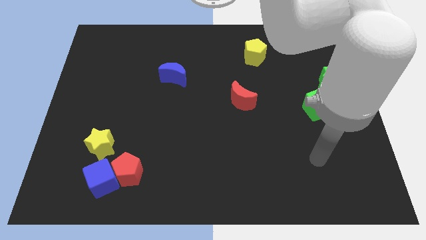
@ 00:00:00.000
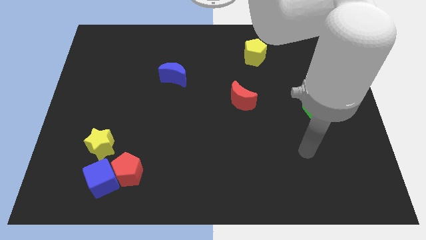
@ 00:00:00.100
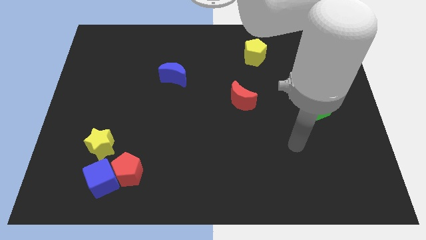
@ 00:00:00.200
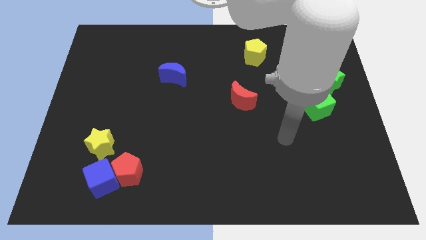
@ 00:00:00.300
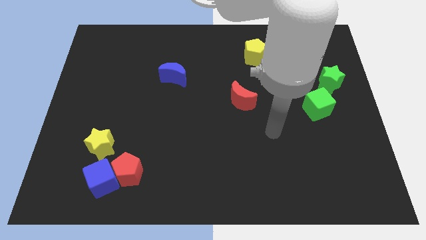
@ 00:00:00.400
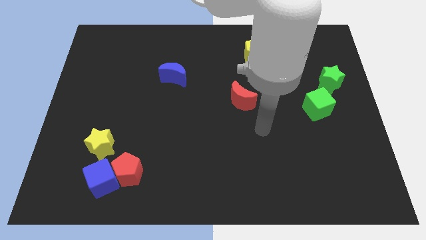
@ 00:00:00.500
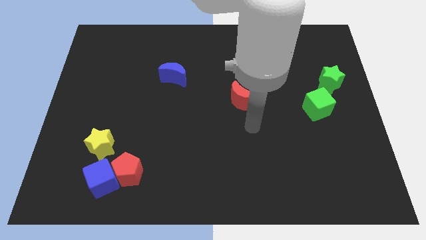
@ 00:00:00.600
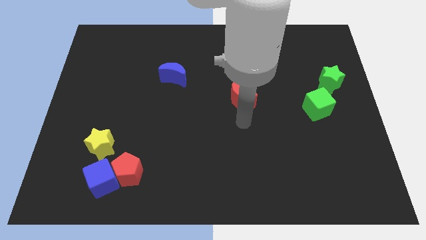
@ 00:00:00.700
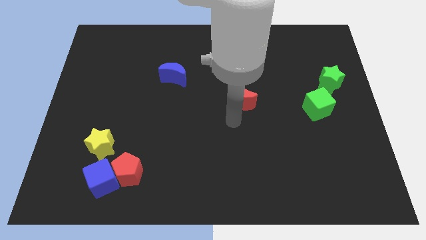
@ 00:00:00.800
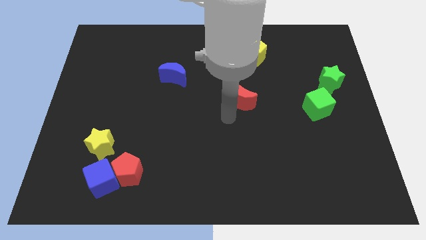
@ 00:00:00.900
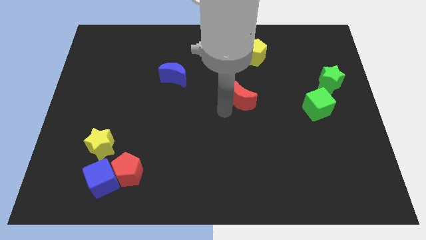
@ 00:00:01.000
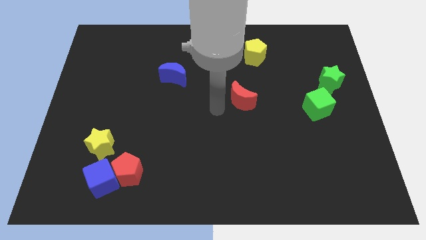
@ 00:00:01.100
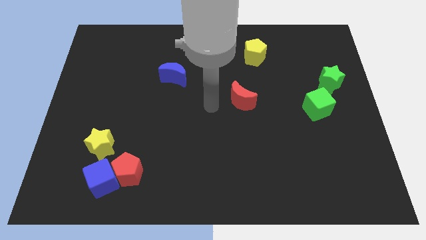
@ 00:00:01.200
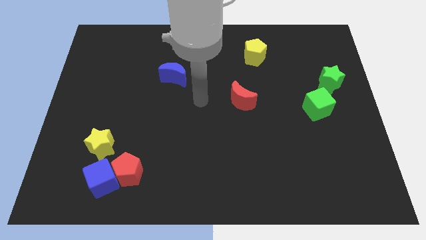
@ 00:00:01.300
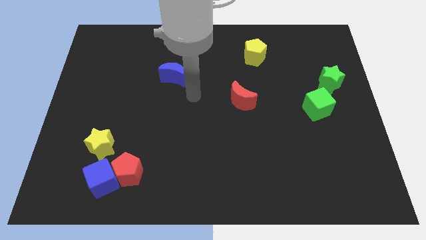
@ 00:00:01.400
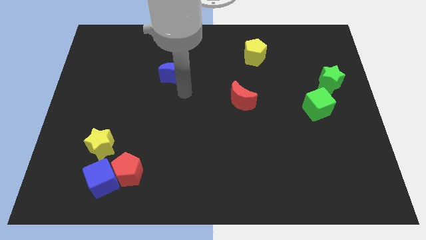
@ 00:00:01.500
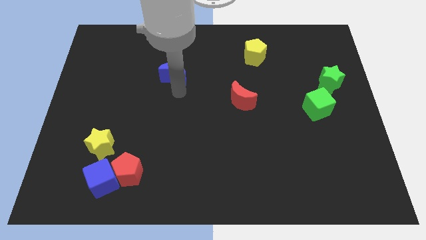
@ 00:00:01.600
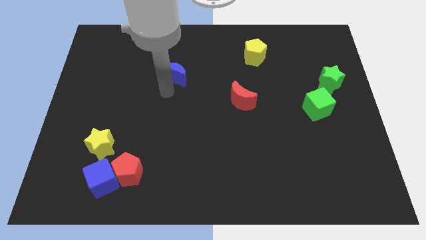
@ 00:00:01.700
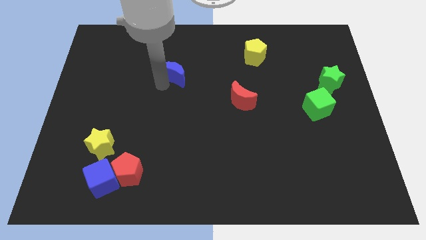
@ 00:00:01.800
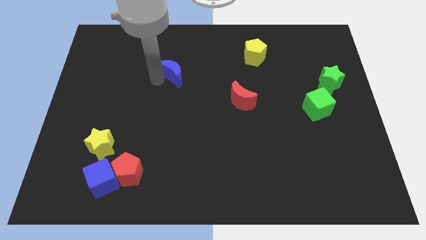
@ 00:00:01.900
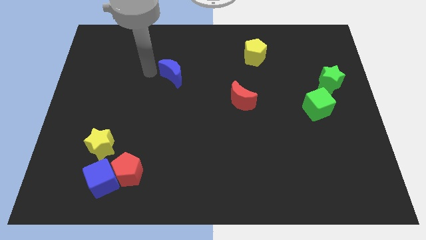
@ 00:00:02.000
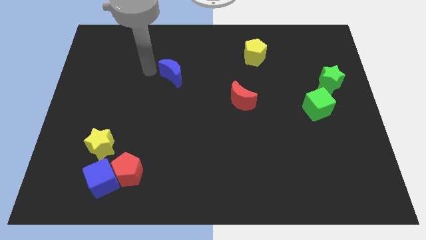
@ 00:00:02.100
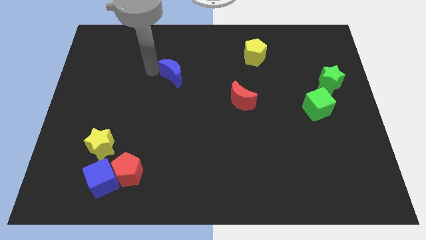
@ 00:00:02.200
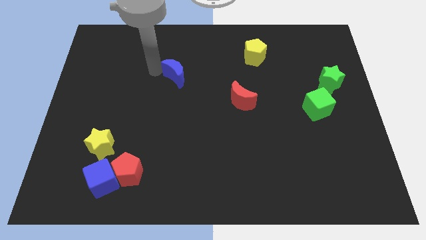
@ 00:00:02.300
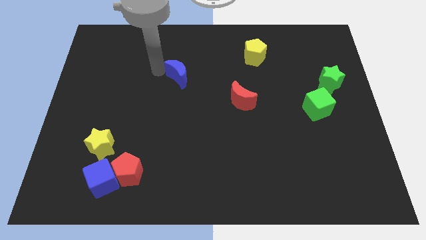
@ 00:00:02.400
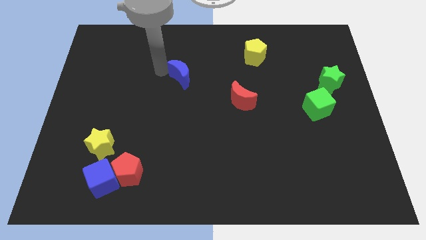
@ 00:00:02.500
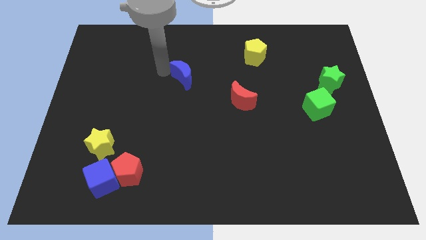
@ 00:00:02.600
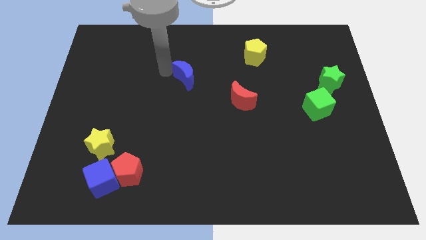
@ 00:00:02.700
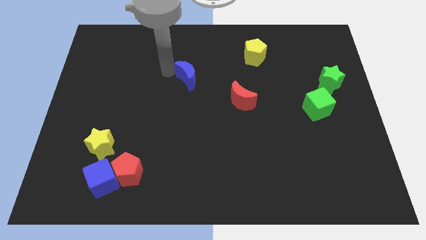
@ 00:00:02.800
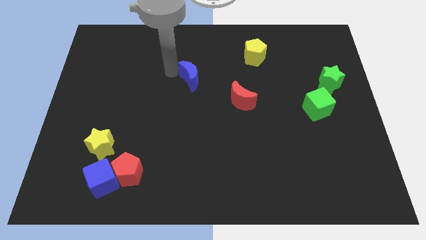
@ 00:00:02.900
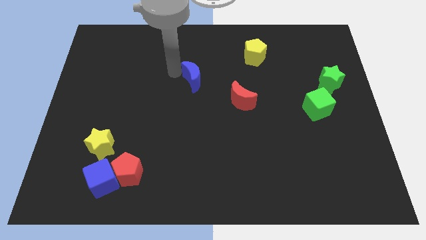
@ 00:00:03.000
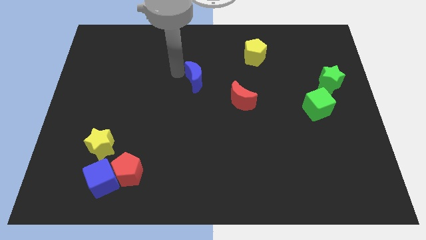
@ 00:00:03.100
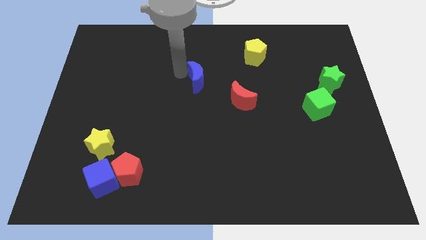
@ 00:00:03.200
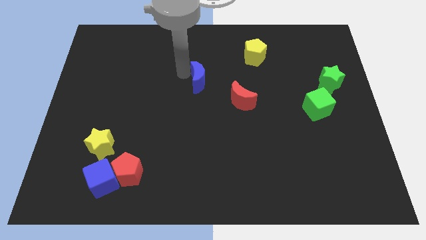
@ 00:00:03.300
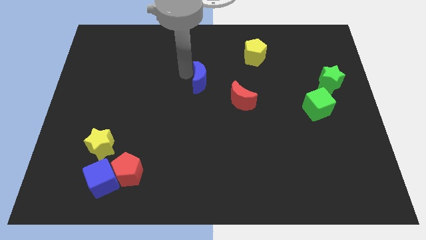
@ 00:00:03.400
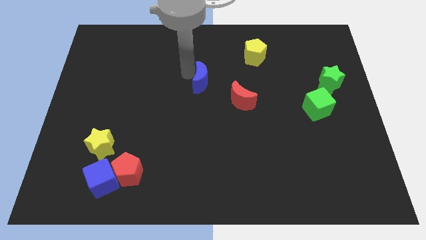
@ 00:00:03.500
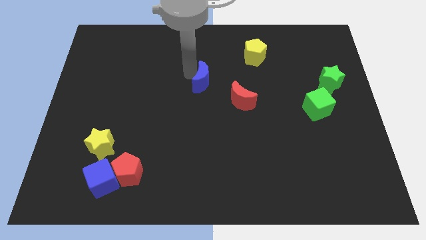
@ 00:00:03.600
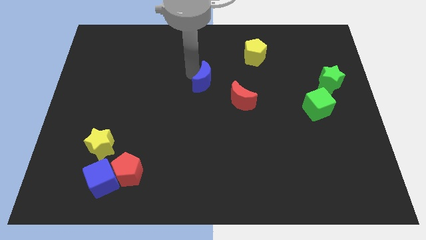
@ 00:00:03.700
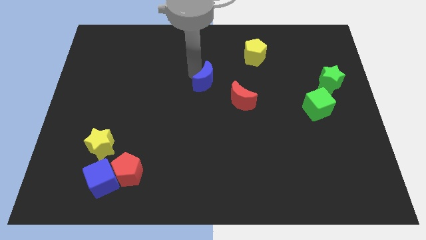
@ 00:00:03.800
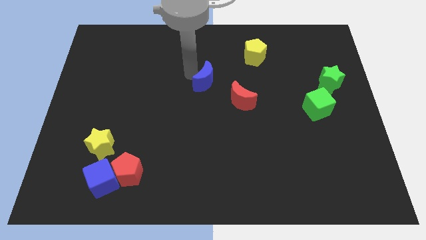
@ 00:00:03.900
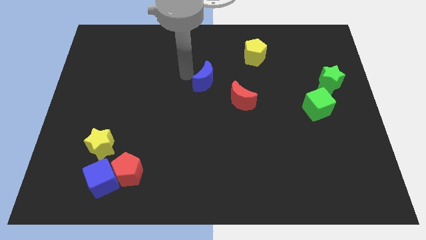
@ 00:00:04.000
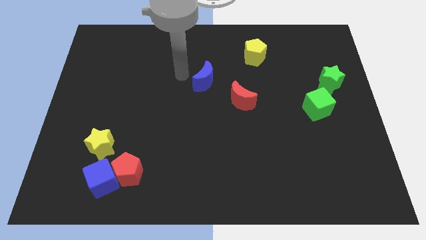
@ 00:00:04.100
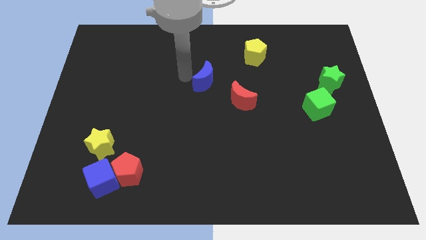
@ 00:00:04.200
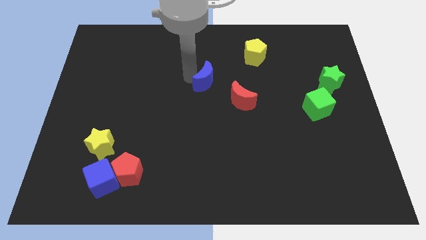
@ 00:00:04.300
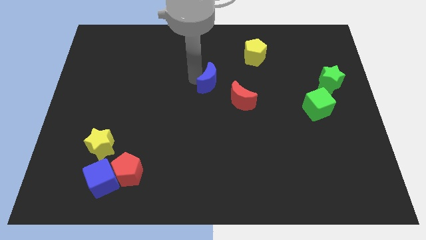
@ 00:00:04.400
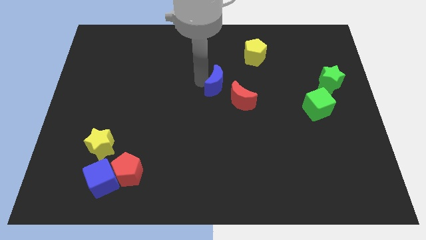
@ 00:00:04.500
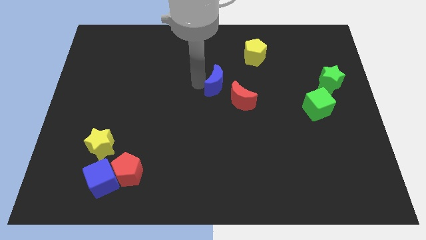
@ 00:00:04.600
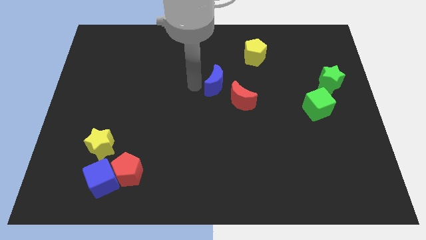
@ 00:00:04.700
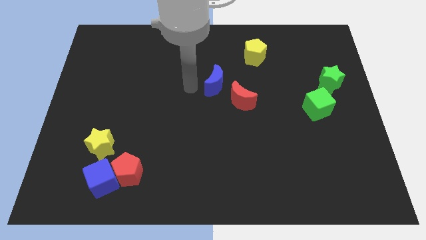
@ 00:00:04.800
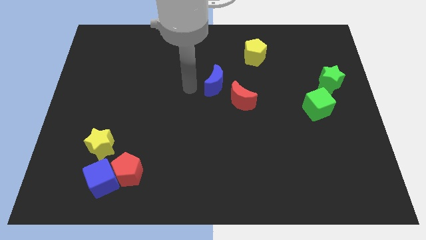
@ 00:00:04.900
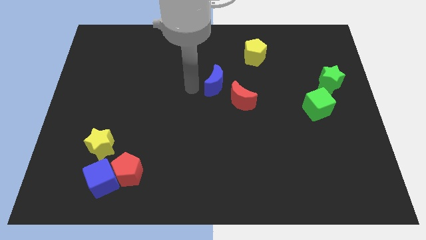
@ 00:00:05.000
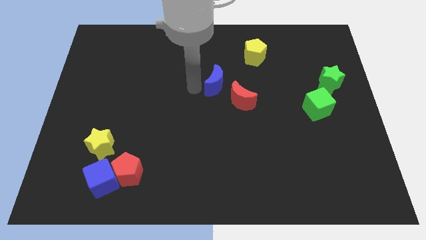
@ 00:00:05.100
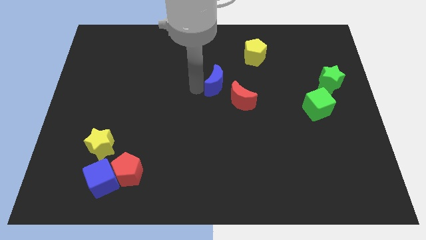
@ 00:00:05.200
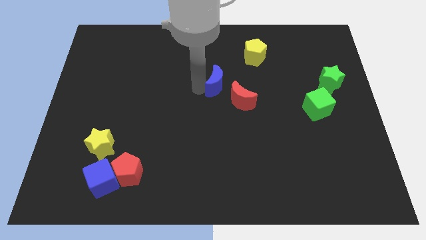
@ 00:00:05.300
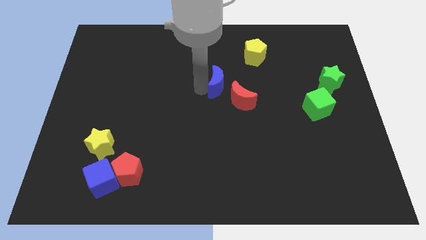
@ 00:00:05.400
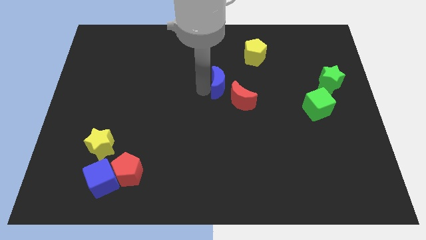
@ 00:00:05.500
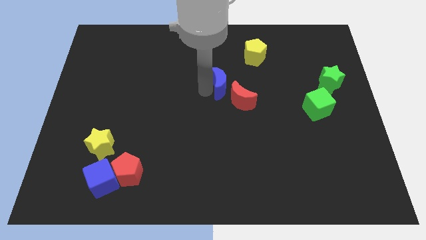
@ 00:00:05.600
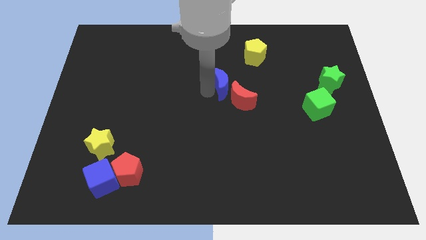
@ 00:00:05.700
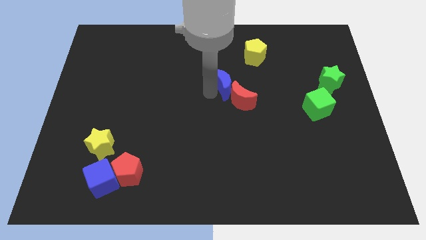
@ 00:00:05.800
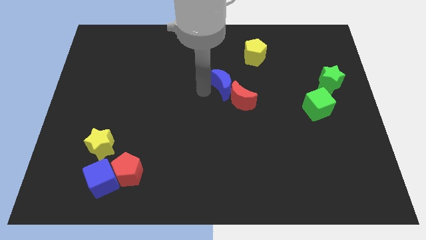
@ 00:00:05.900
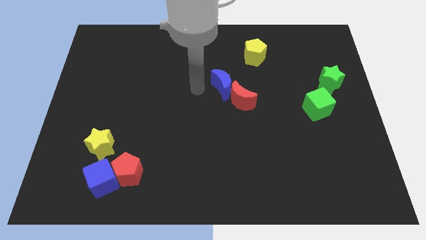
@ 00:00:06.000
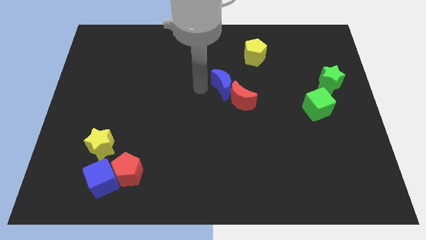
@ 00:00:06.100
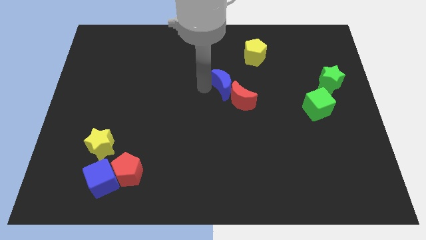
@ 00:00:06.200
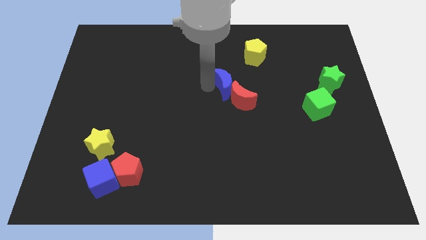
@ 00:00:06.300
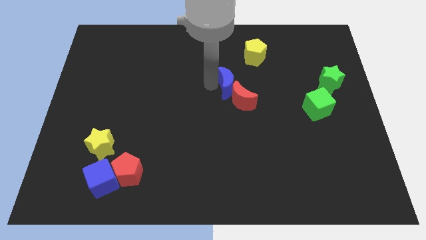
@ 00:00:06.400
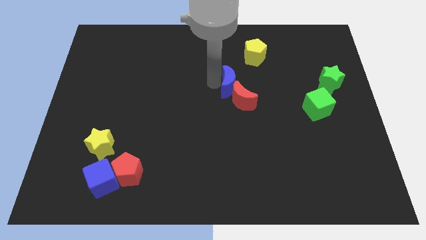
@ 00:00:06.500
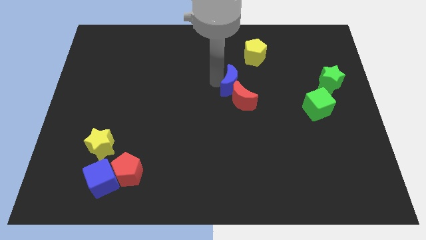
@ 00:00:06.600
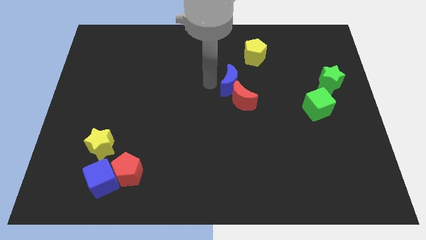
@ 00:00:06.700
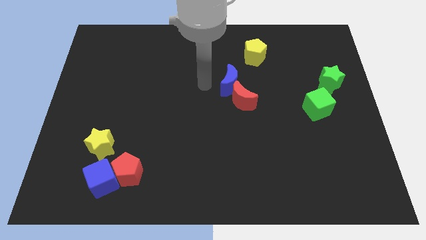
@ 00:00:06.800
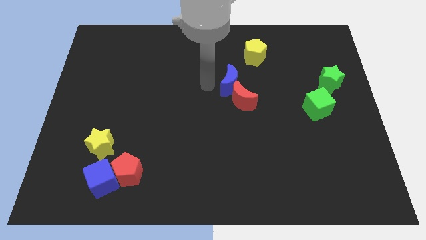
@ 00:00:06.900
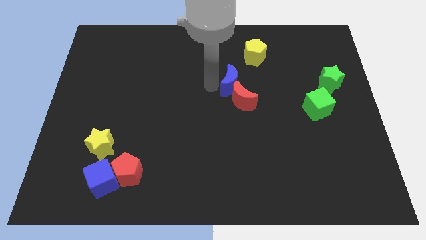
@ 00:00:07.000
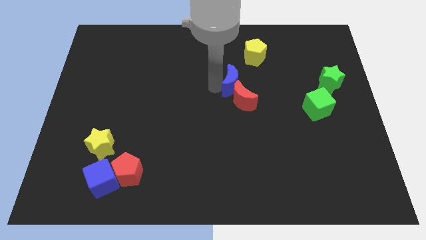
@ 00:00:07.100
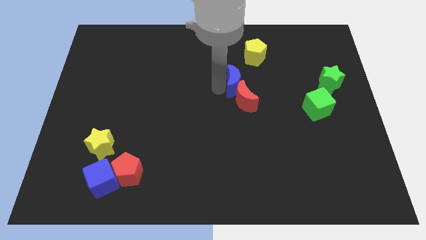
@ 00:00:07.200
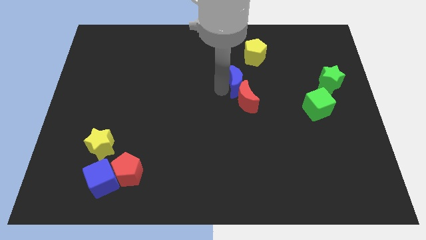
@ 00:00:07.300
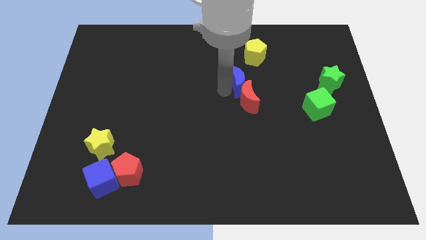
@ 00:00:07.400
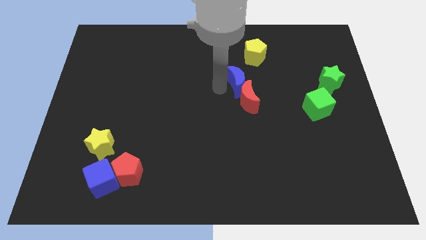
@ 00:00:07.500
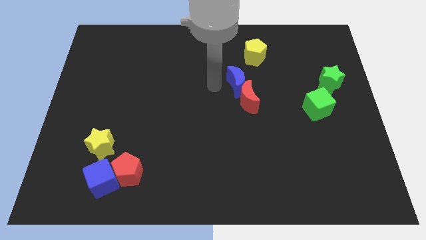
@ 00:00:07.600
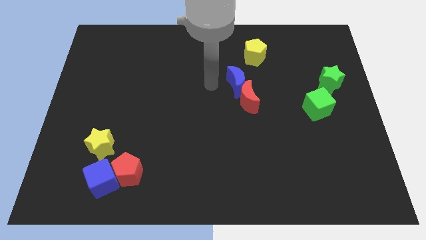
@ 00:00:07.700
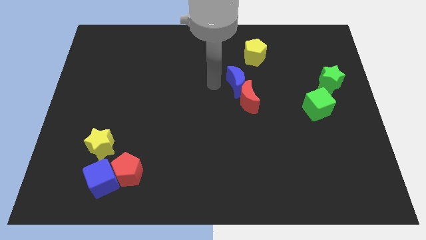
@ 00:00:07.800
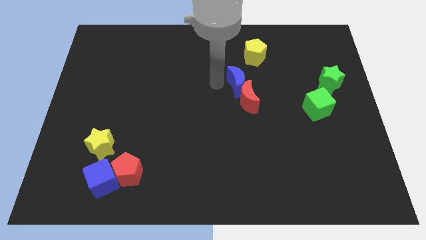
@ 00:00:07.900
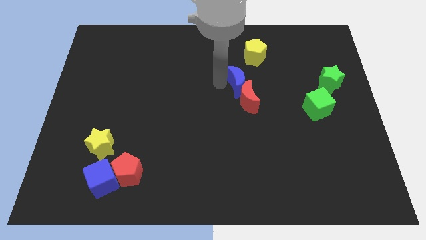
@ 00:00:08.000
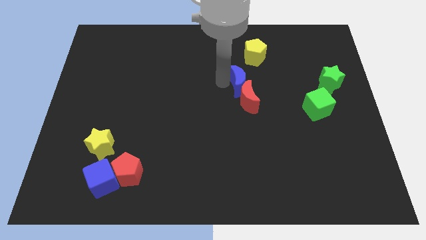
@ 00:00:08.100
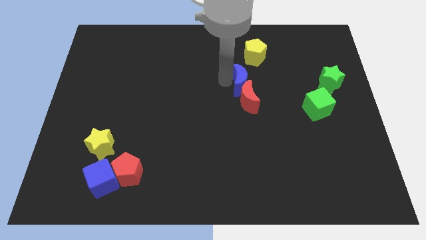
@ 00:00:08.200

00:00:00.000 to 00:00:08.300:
move the blue moon to the top right of the red moon
